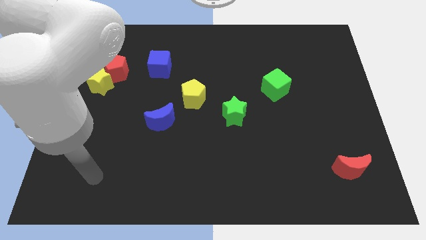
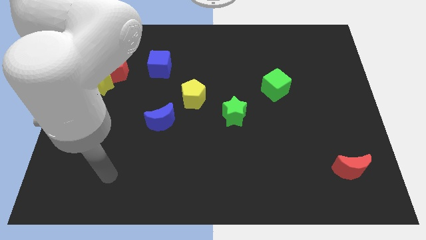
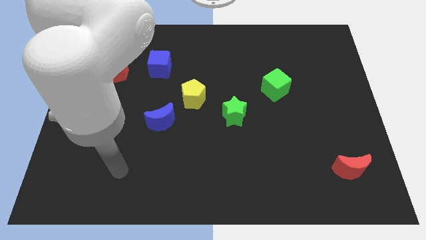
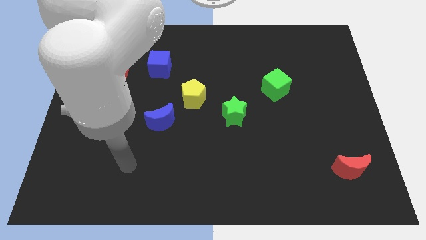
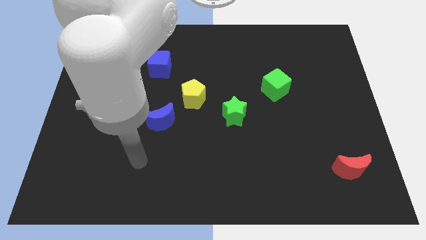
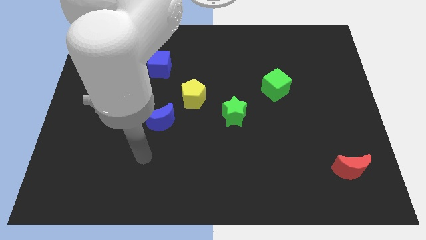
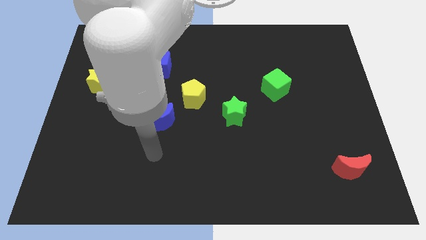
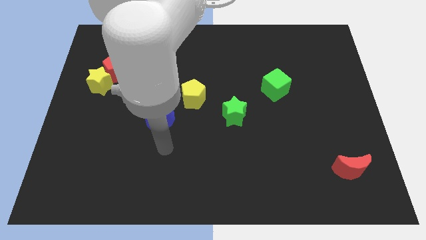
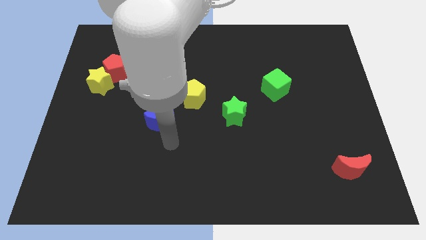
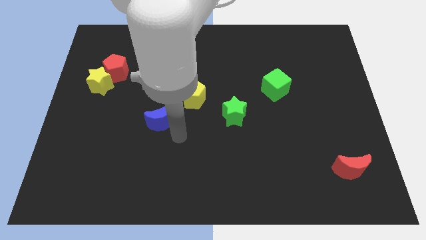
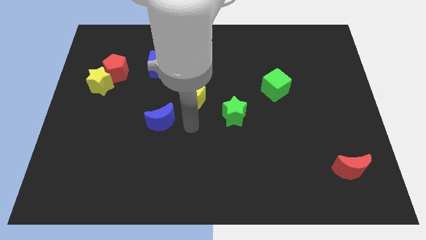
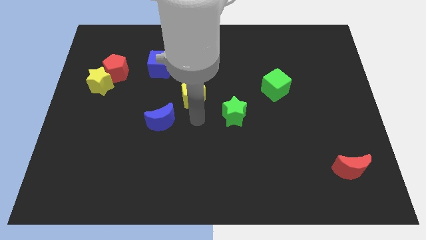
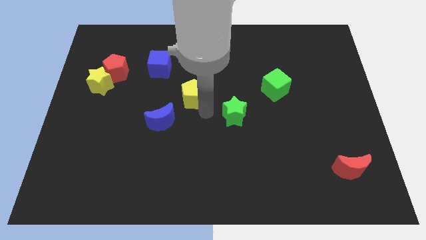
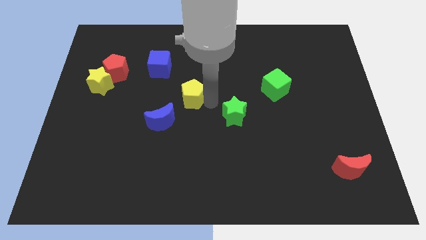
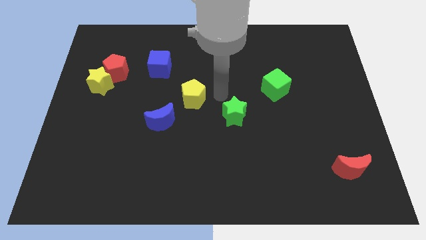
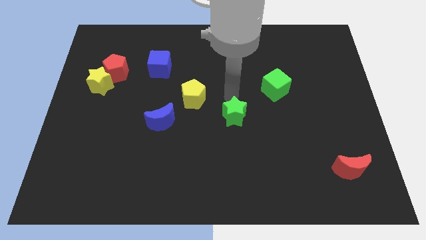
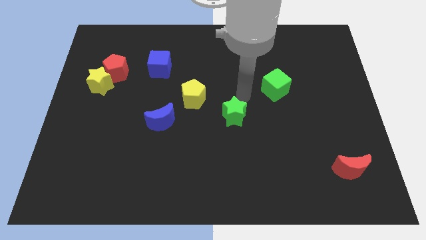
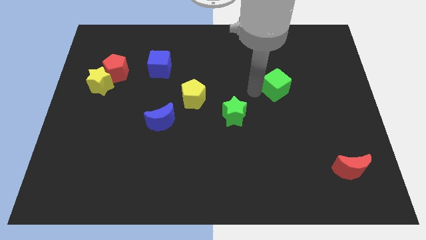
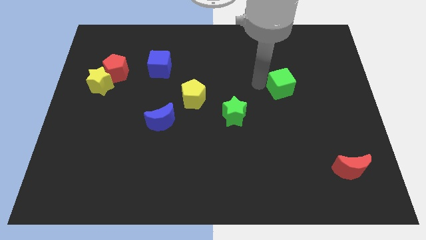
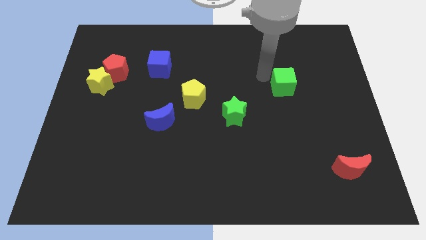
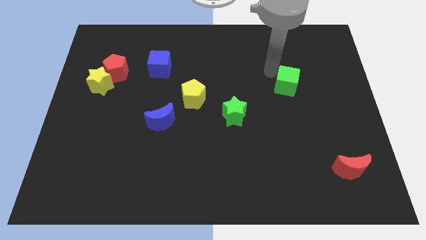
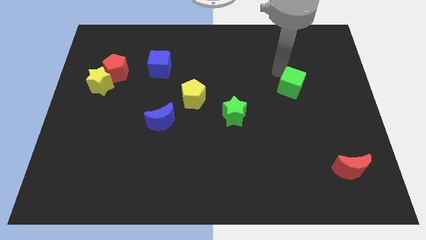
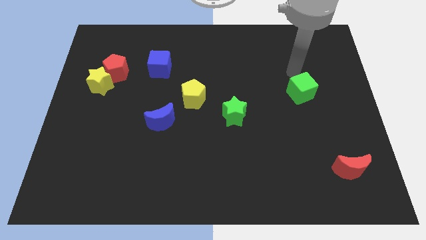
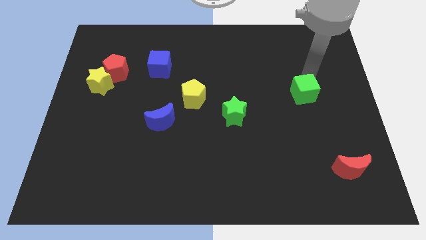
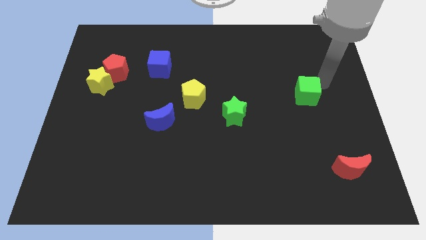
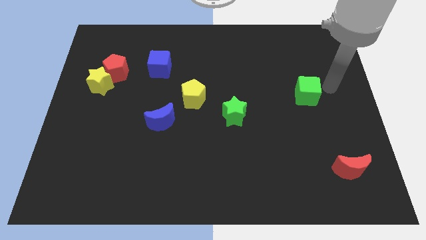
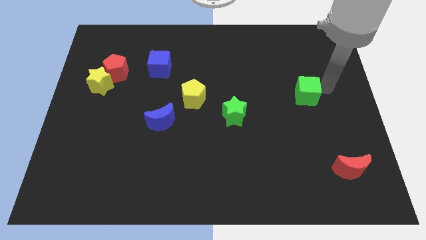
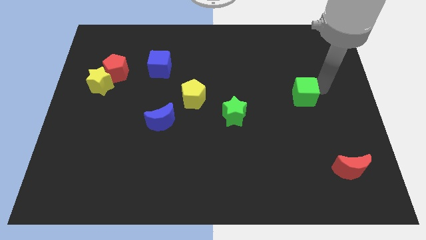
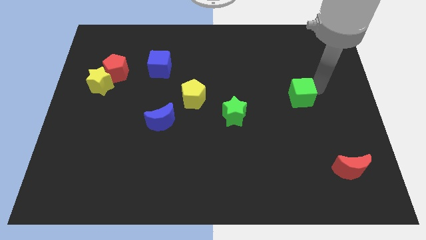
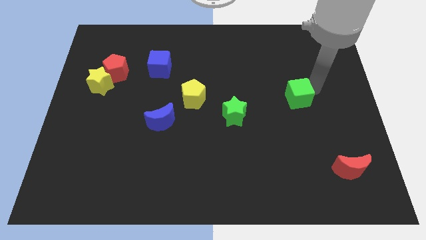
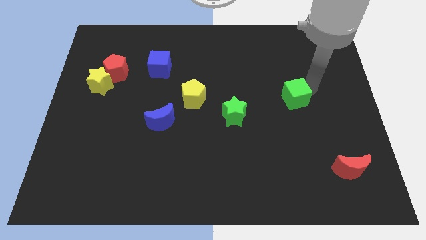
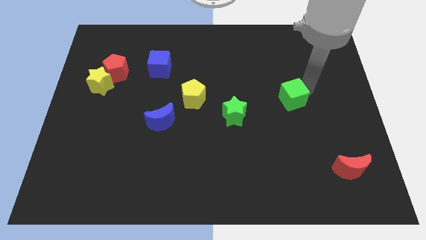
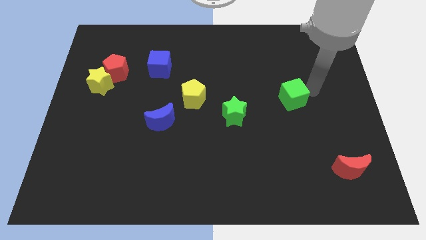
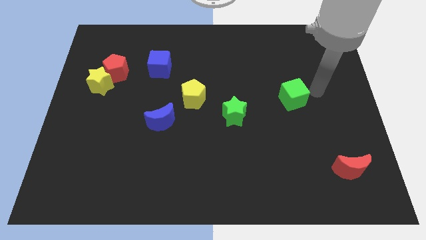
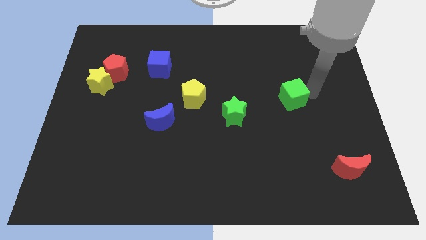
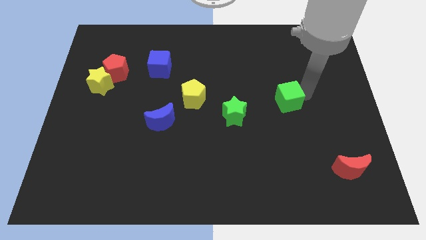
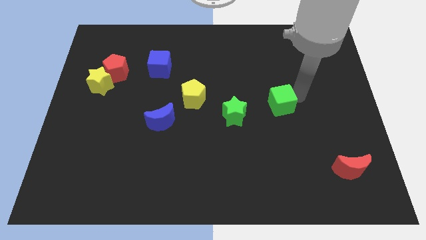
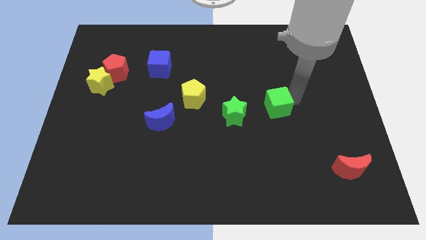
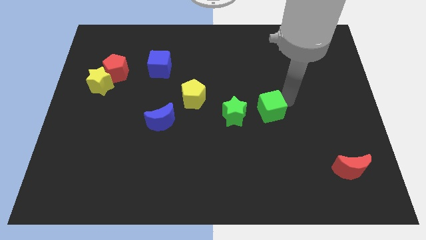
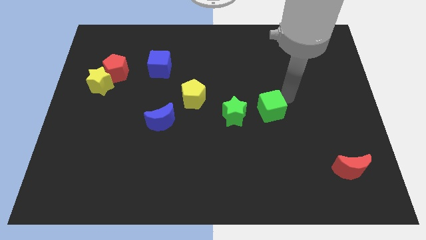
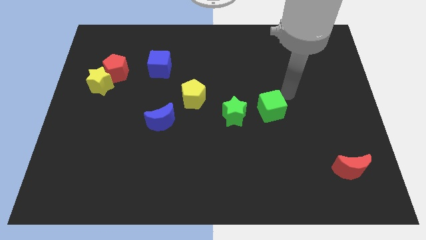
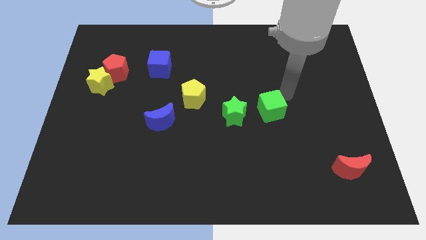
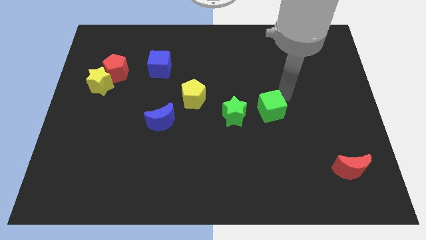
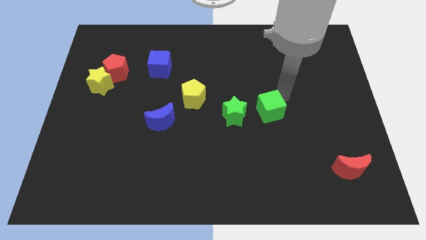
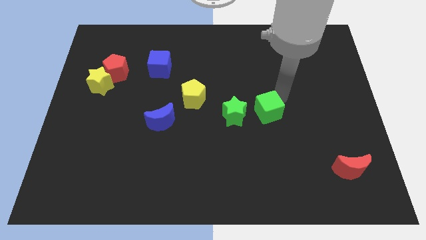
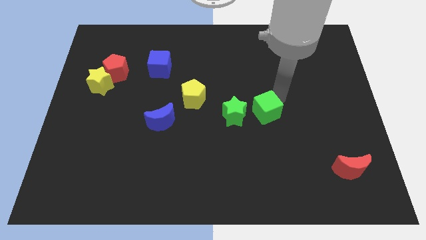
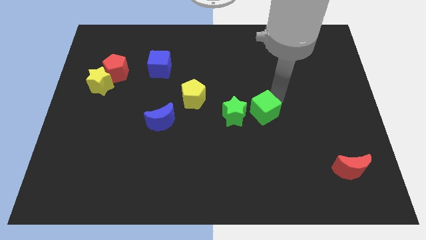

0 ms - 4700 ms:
slide the green cube a little bit downwards and to the left diagonally

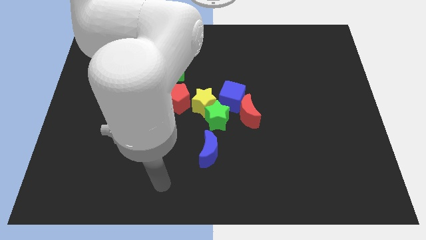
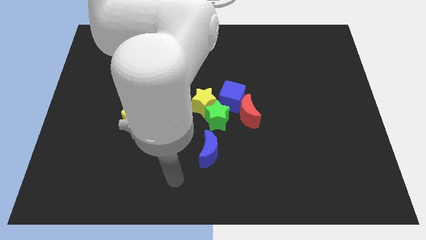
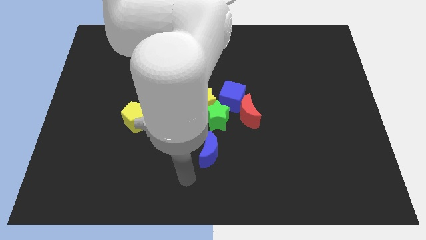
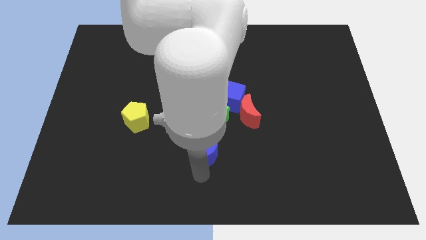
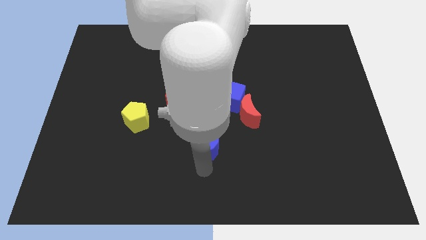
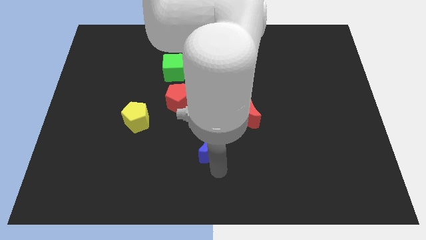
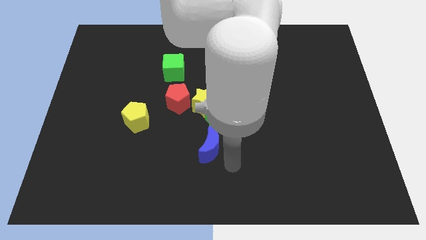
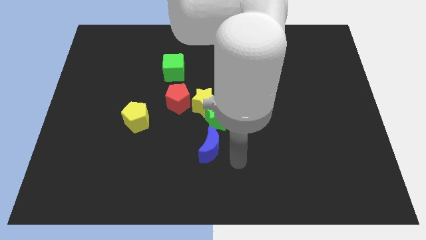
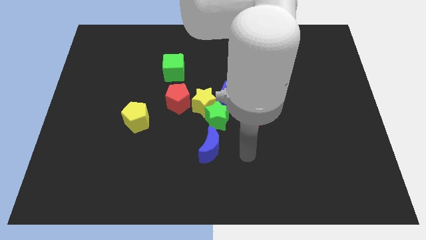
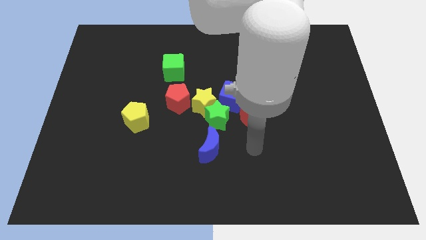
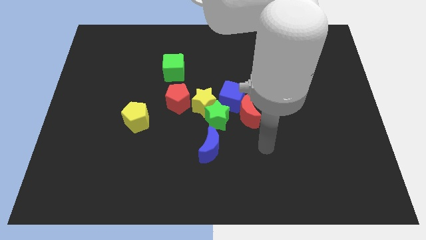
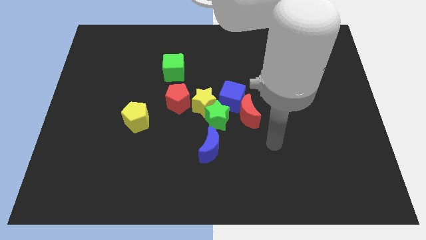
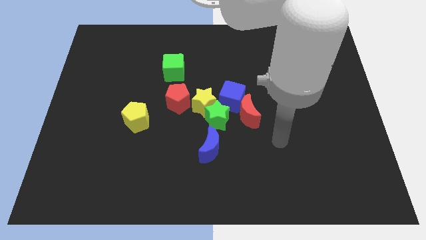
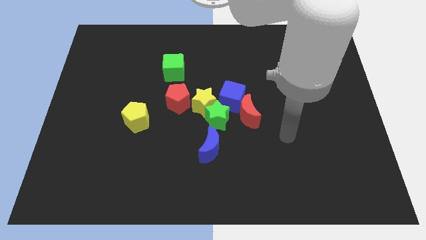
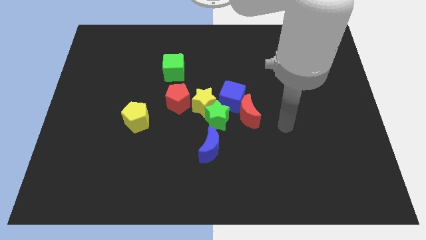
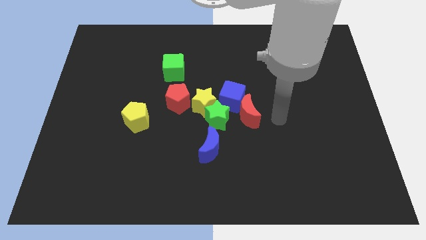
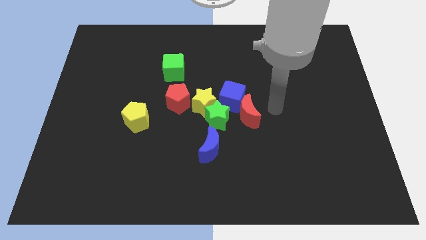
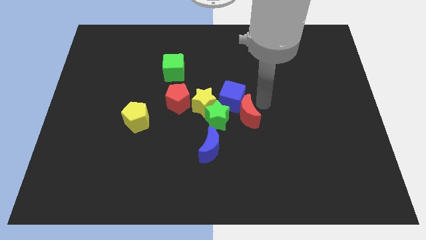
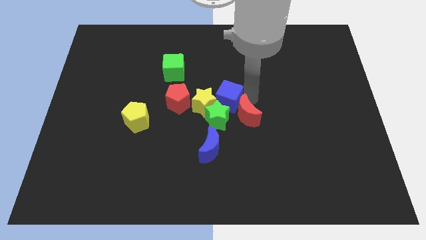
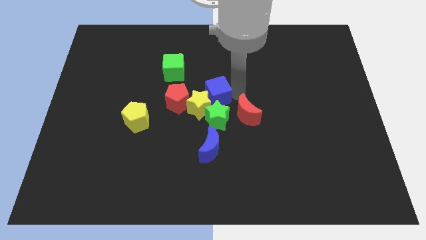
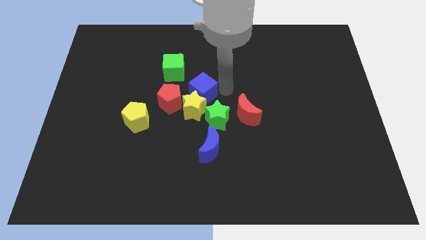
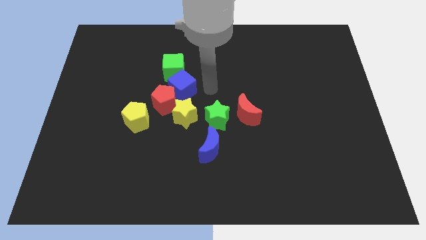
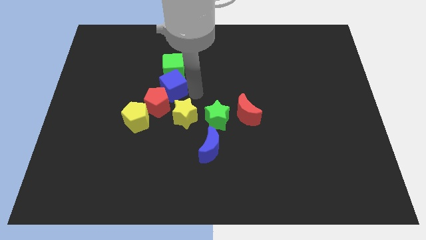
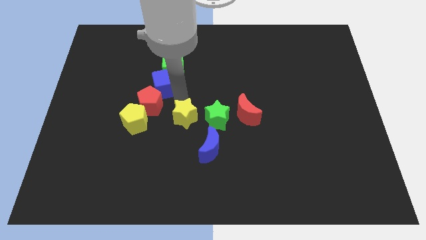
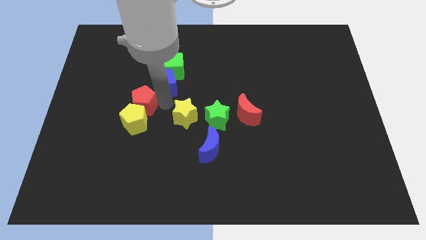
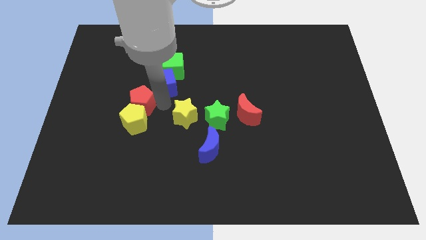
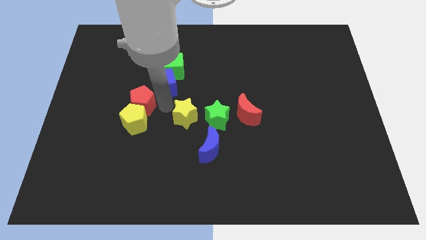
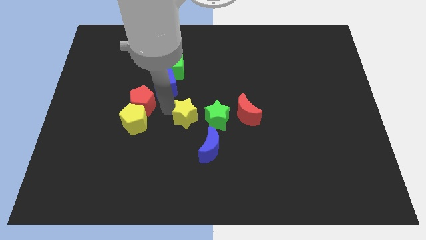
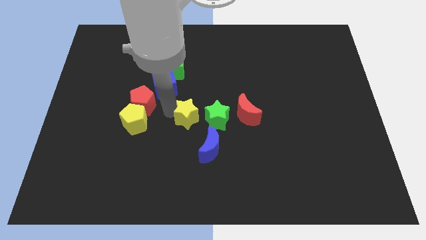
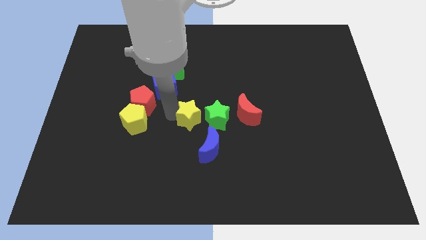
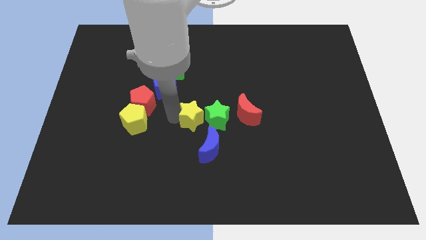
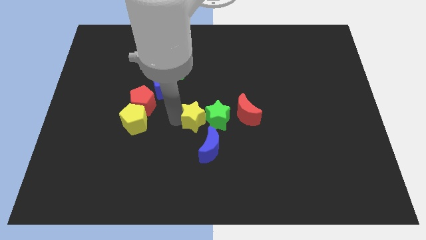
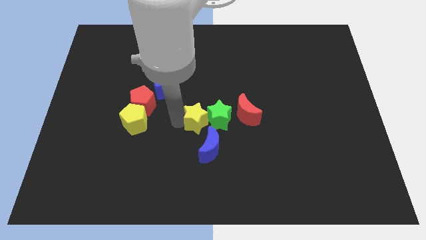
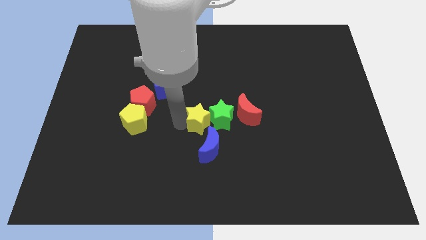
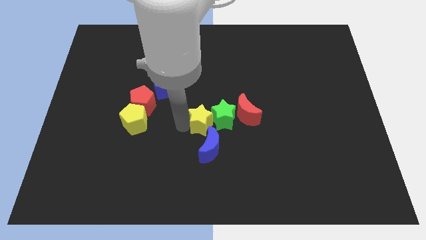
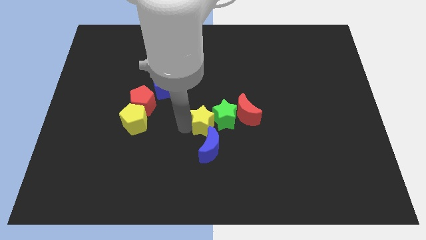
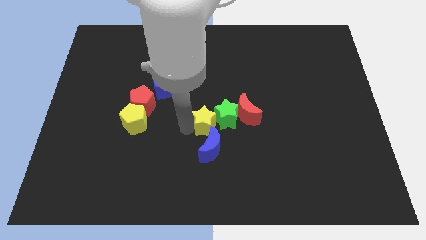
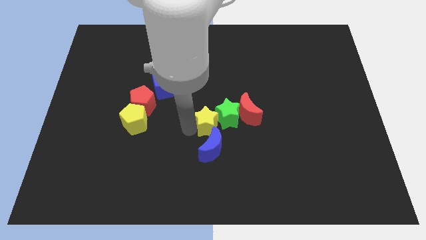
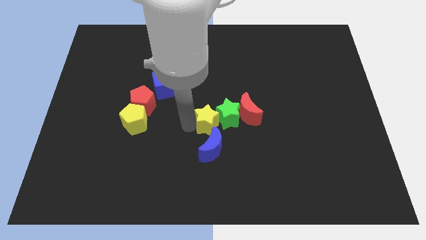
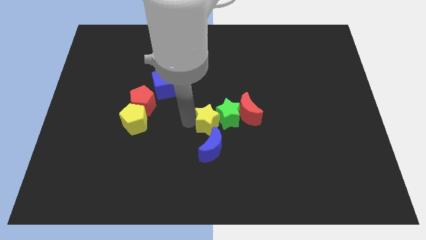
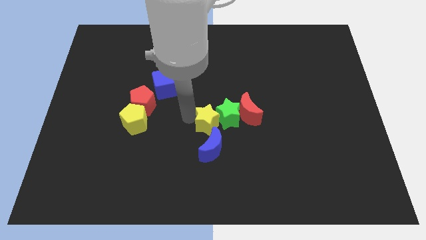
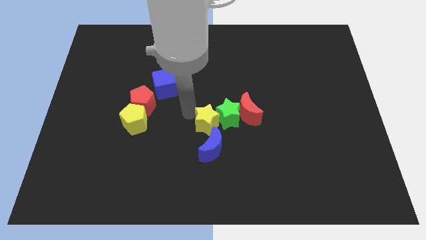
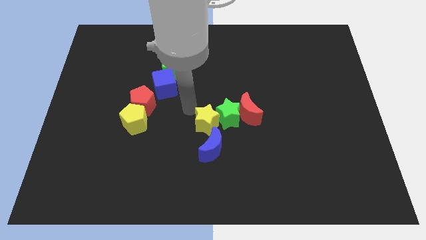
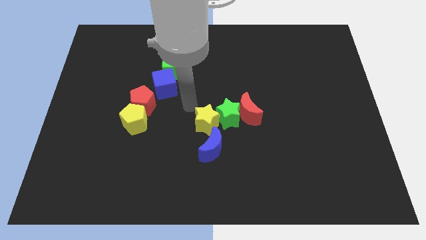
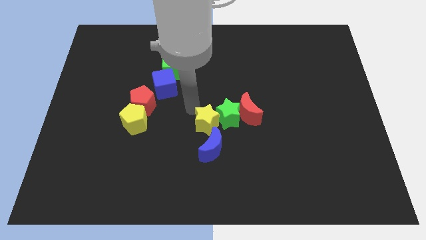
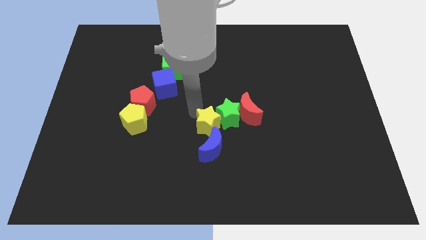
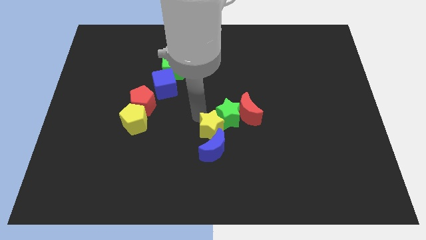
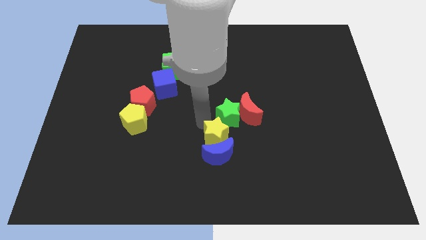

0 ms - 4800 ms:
move the yellow star slightly downwards and right
